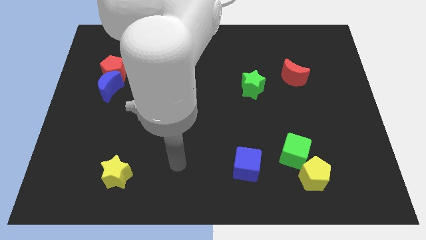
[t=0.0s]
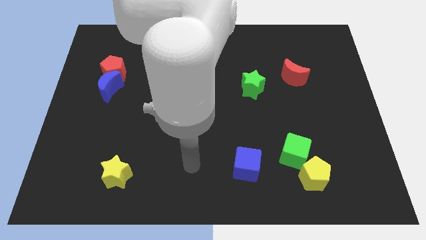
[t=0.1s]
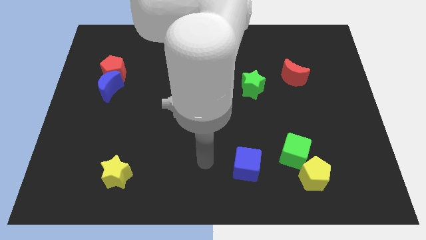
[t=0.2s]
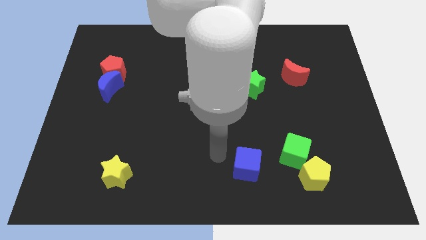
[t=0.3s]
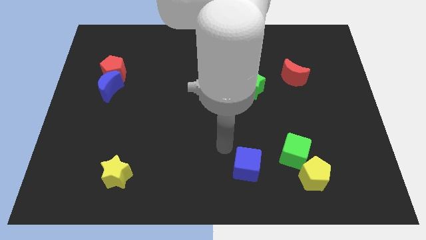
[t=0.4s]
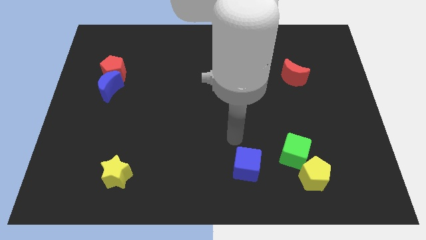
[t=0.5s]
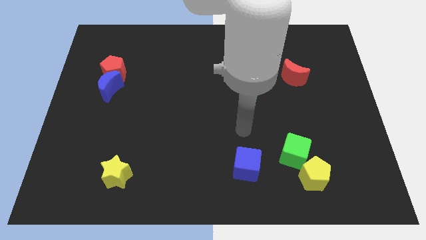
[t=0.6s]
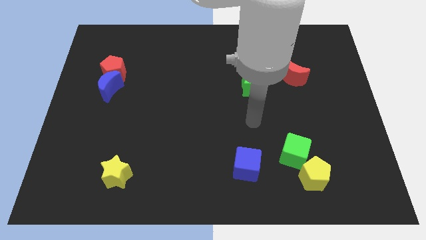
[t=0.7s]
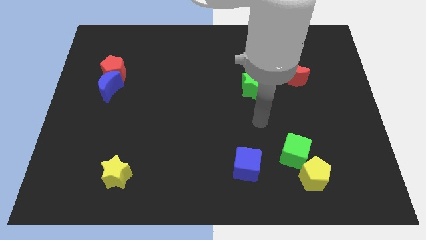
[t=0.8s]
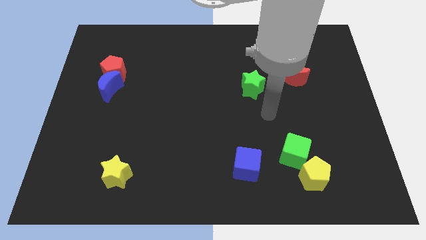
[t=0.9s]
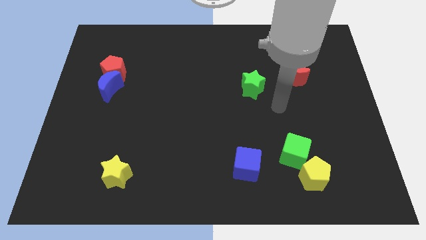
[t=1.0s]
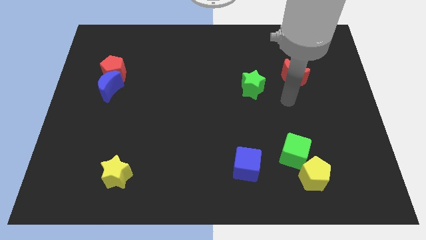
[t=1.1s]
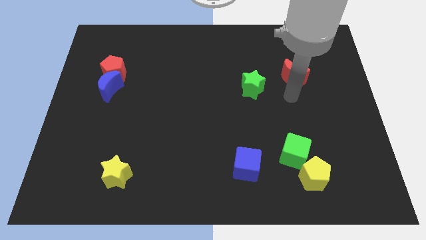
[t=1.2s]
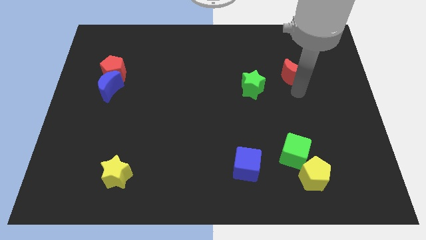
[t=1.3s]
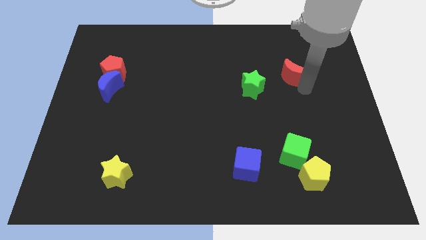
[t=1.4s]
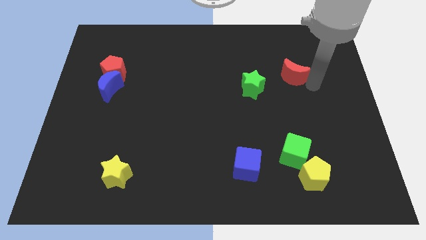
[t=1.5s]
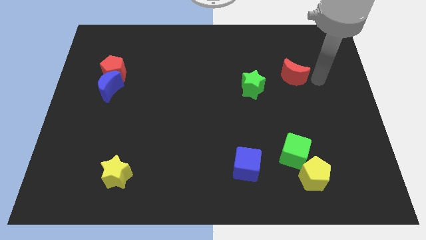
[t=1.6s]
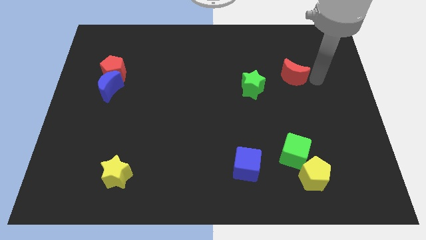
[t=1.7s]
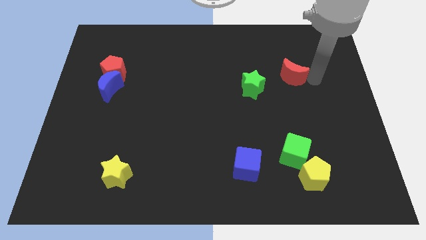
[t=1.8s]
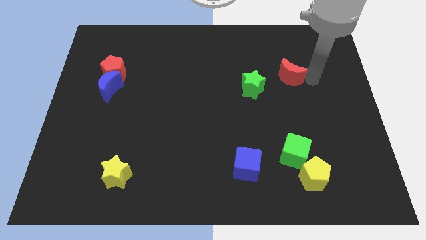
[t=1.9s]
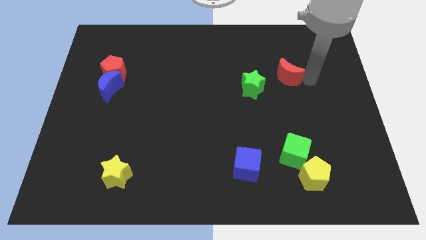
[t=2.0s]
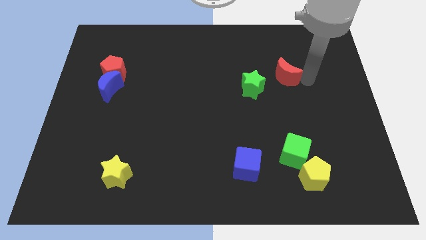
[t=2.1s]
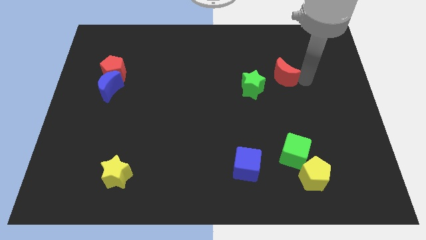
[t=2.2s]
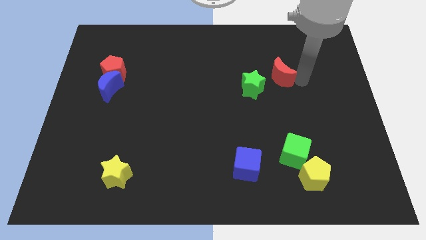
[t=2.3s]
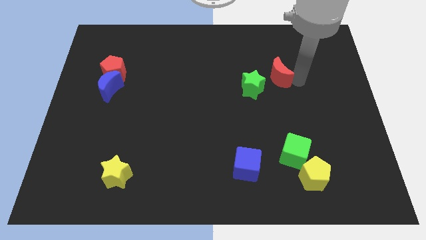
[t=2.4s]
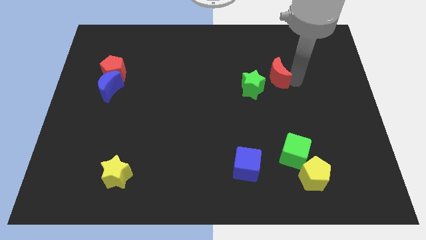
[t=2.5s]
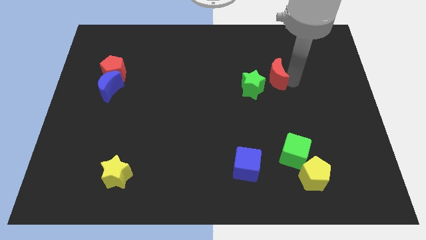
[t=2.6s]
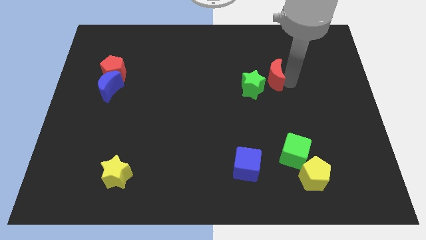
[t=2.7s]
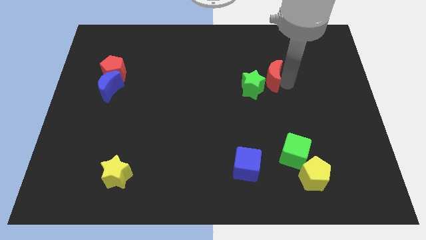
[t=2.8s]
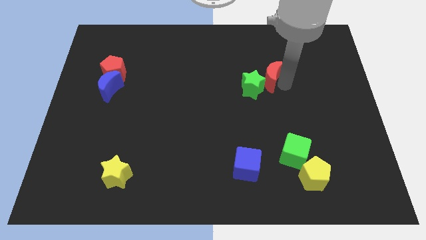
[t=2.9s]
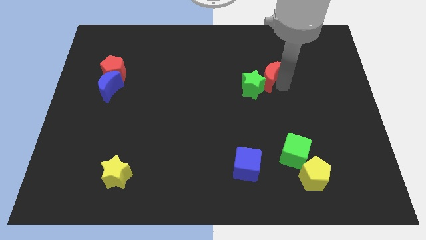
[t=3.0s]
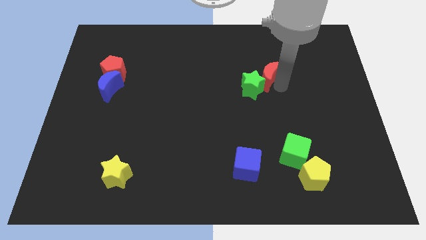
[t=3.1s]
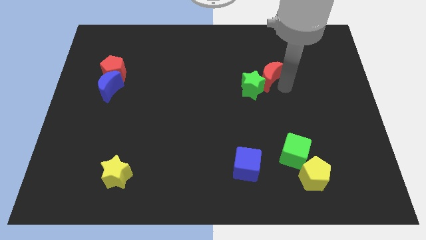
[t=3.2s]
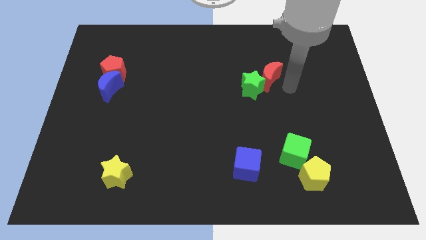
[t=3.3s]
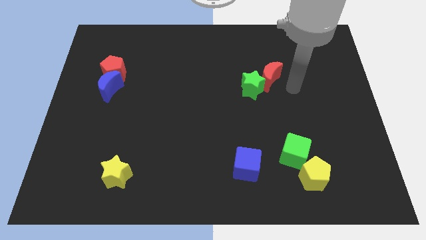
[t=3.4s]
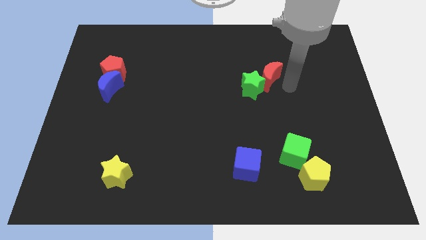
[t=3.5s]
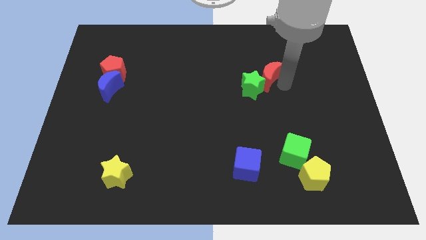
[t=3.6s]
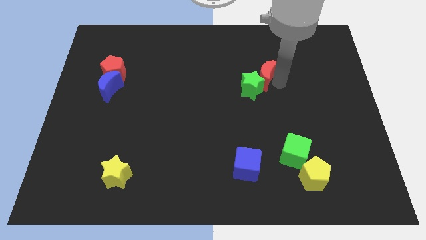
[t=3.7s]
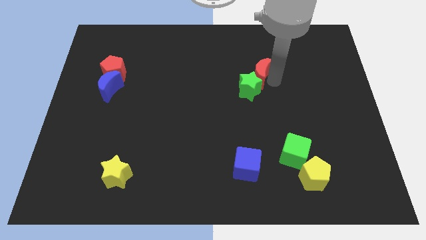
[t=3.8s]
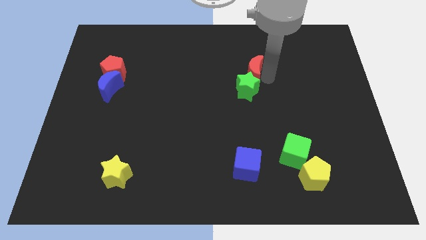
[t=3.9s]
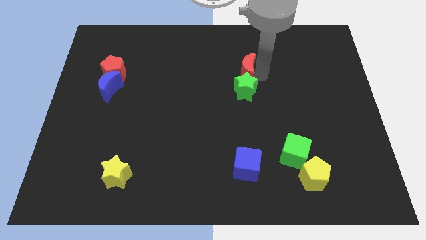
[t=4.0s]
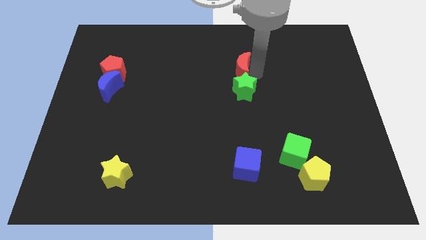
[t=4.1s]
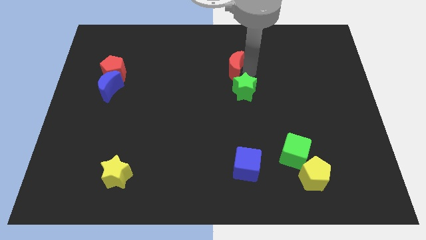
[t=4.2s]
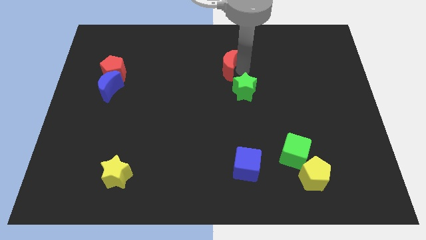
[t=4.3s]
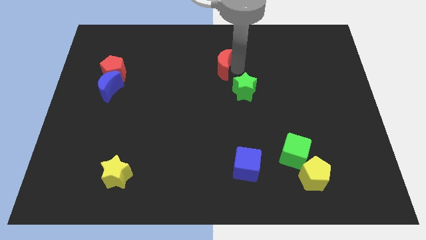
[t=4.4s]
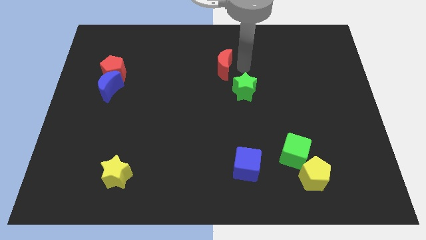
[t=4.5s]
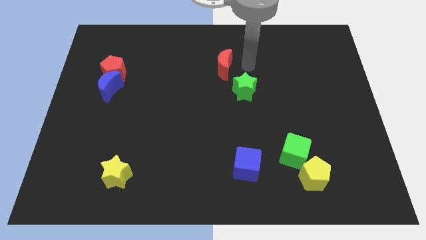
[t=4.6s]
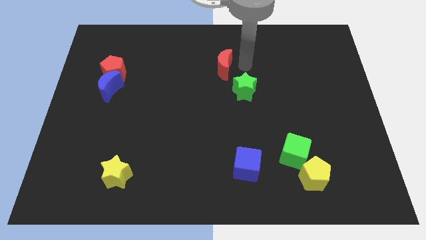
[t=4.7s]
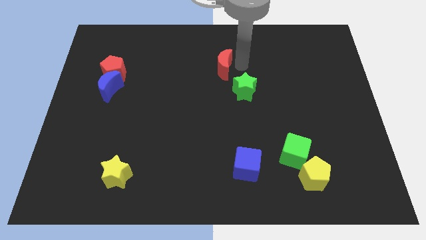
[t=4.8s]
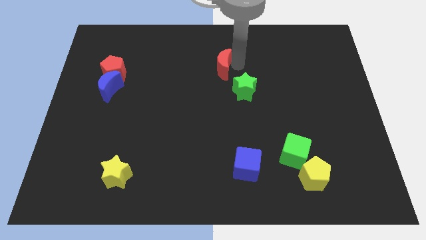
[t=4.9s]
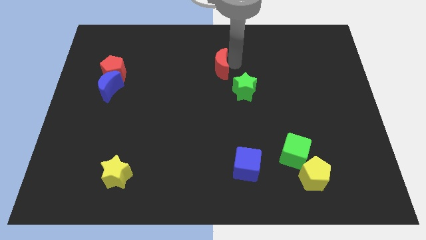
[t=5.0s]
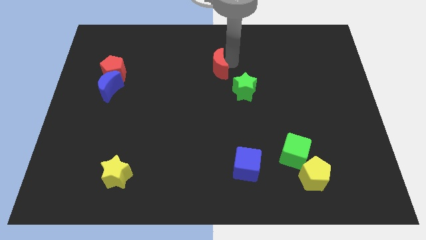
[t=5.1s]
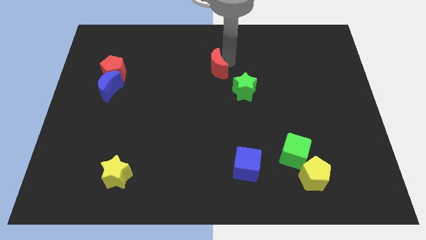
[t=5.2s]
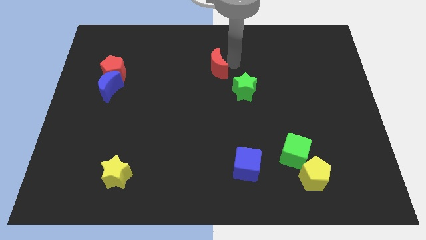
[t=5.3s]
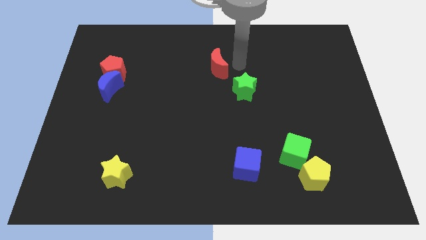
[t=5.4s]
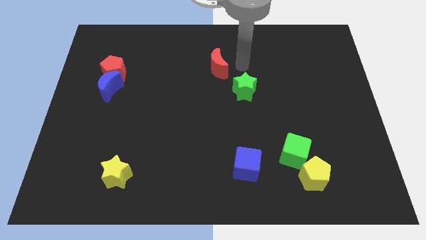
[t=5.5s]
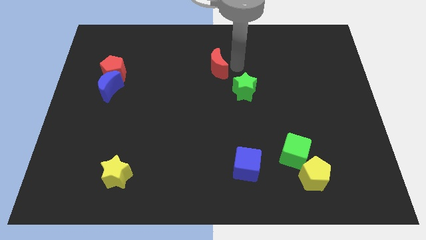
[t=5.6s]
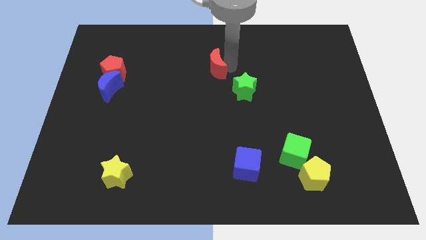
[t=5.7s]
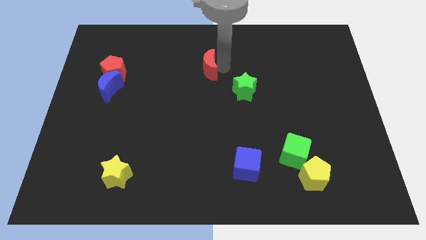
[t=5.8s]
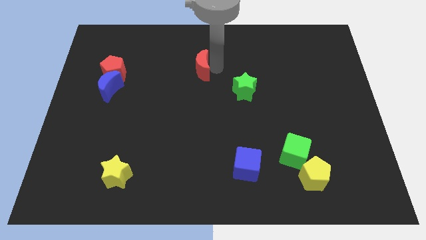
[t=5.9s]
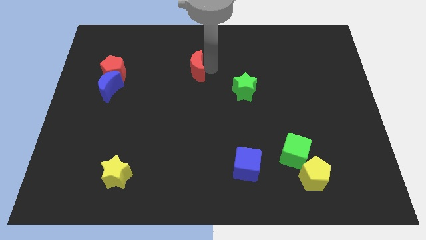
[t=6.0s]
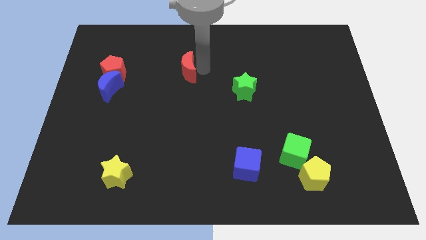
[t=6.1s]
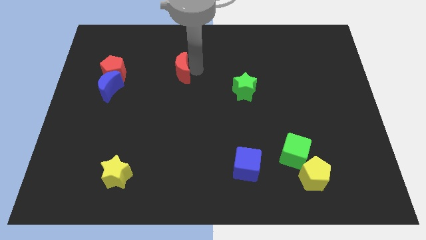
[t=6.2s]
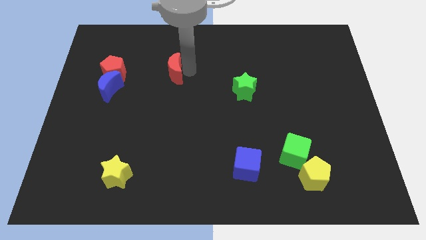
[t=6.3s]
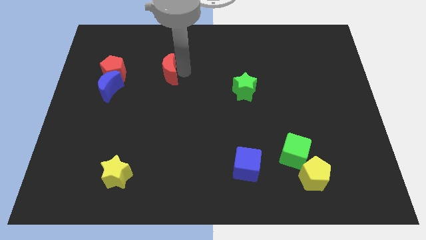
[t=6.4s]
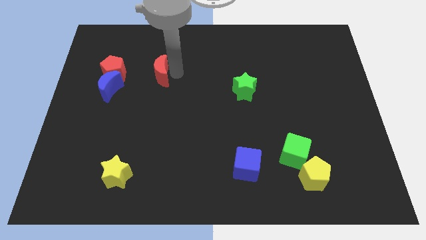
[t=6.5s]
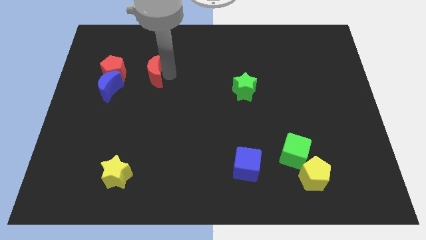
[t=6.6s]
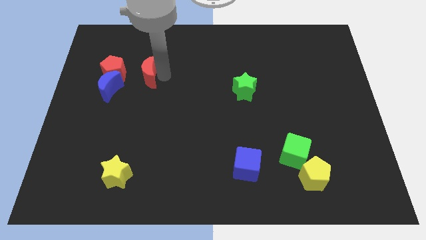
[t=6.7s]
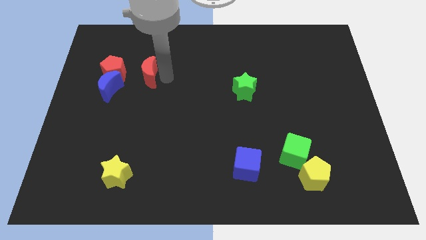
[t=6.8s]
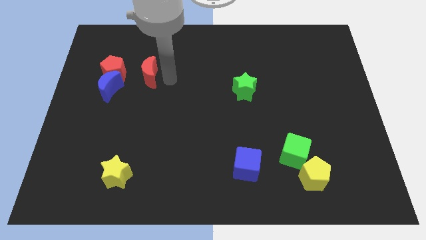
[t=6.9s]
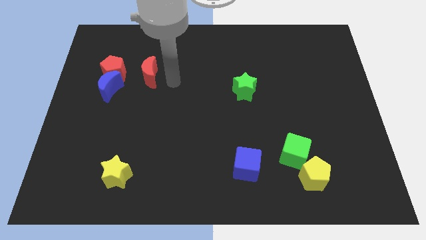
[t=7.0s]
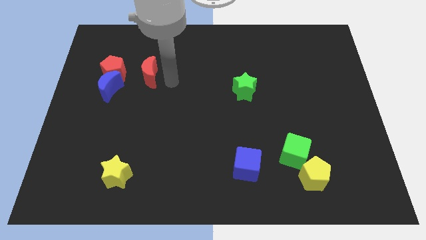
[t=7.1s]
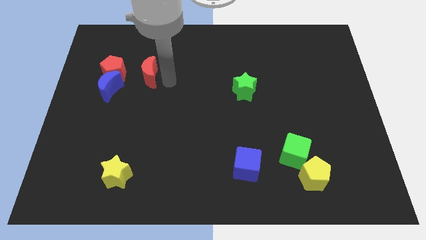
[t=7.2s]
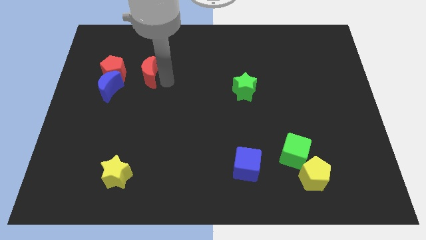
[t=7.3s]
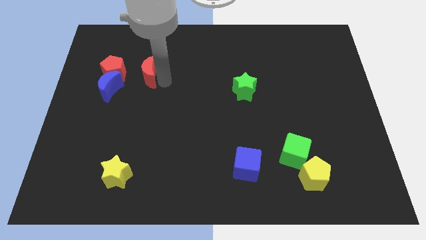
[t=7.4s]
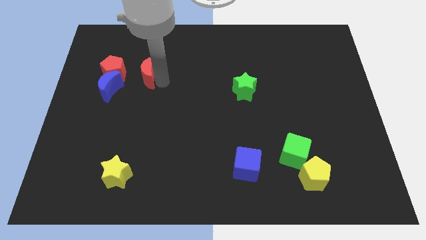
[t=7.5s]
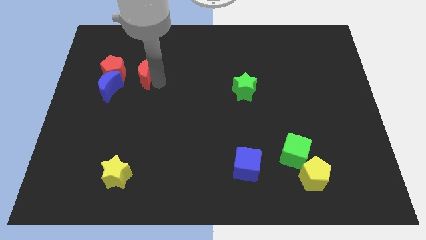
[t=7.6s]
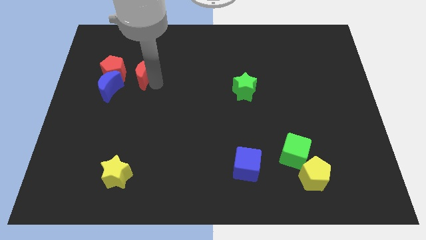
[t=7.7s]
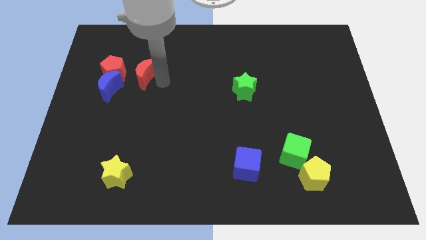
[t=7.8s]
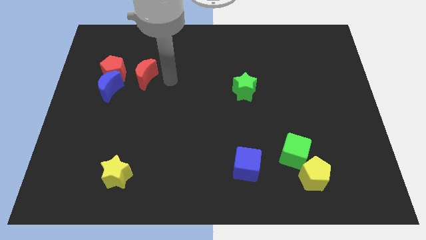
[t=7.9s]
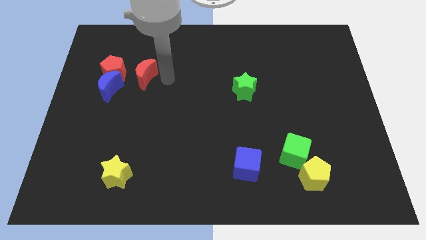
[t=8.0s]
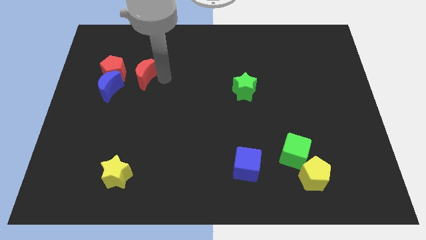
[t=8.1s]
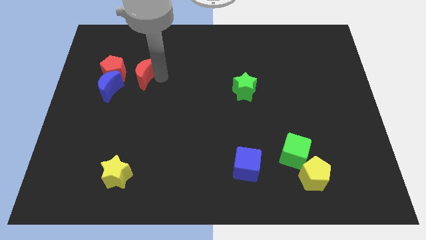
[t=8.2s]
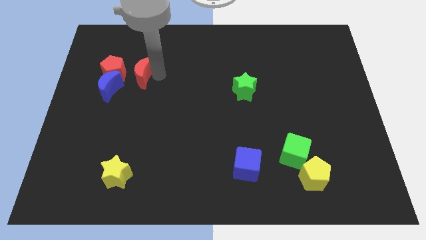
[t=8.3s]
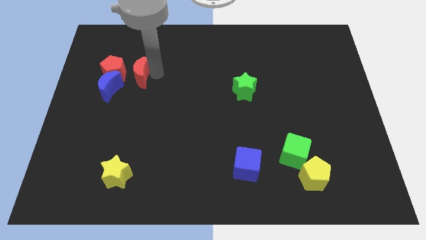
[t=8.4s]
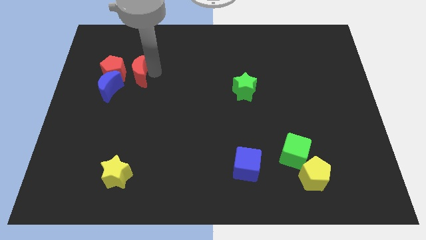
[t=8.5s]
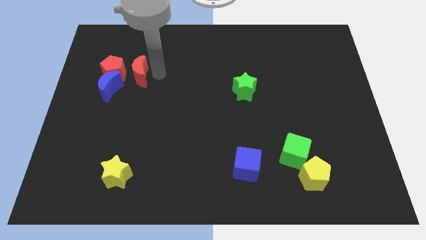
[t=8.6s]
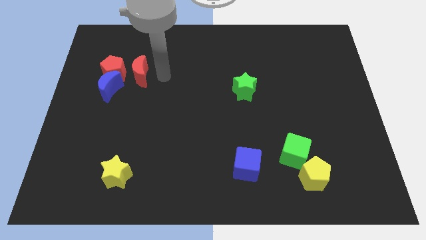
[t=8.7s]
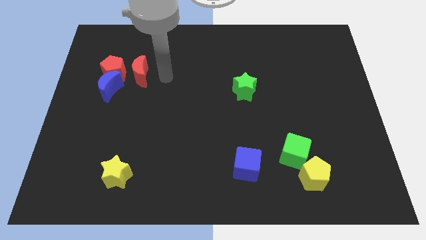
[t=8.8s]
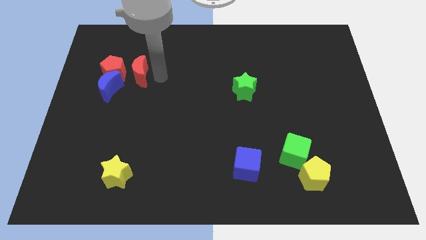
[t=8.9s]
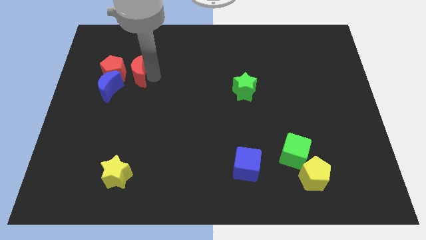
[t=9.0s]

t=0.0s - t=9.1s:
push the red moon next to the red pentagon
